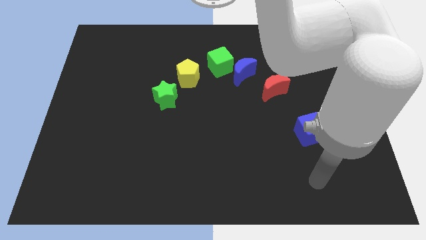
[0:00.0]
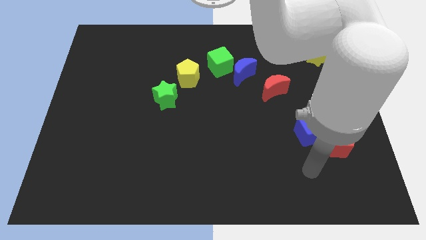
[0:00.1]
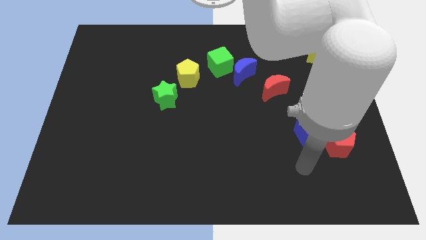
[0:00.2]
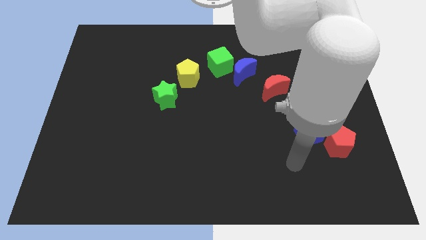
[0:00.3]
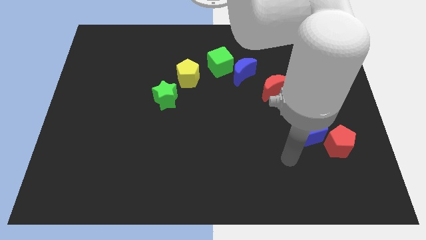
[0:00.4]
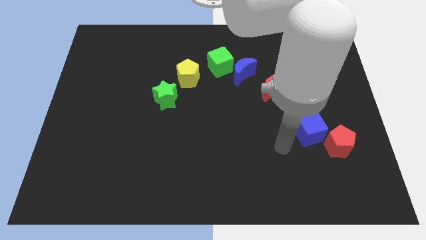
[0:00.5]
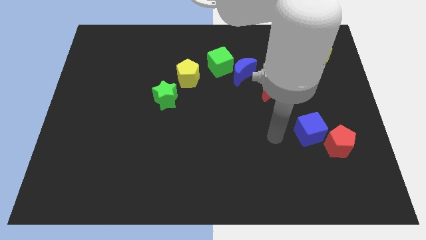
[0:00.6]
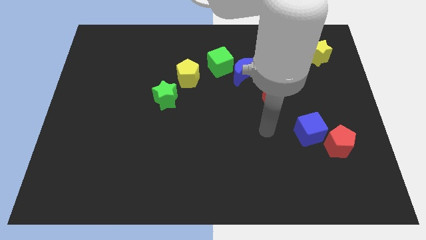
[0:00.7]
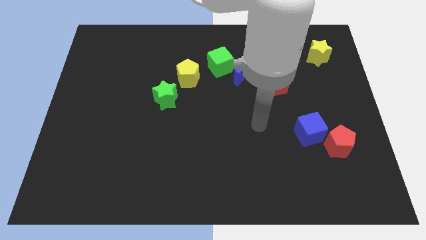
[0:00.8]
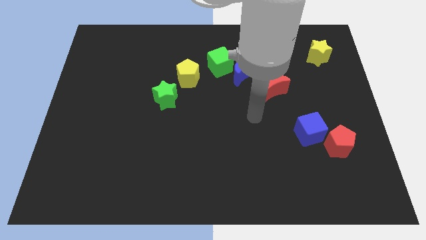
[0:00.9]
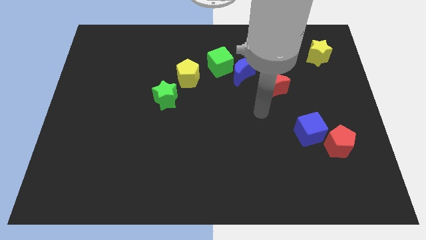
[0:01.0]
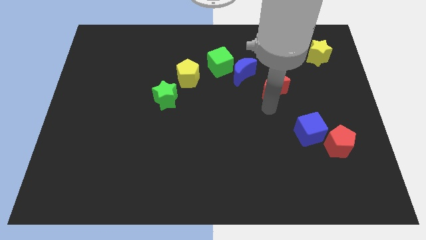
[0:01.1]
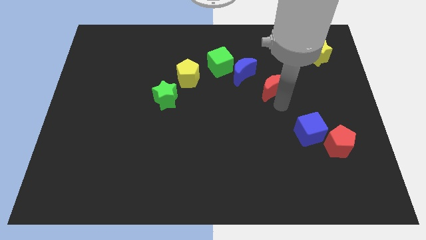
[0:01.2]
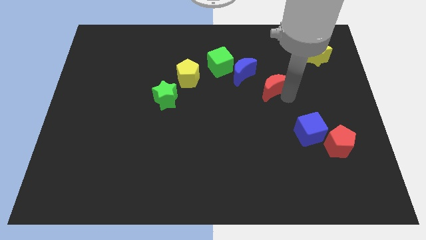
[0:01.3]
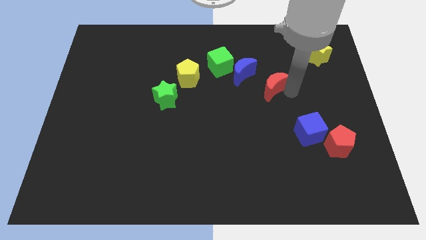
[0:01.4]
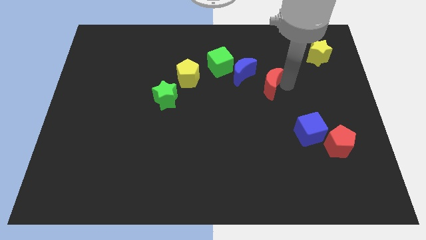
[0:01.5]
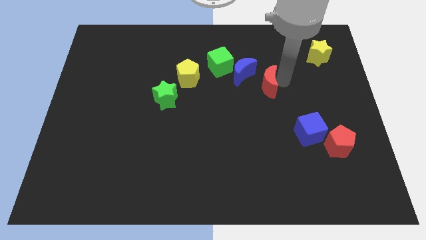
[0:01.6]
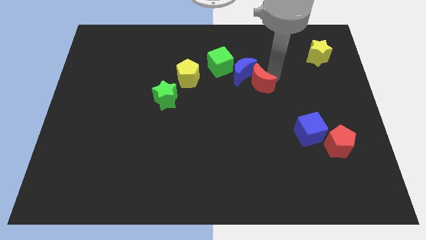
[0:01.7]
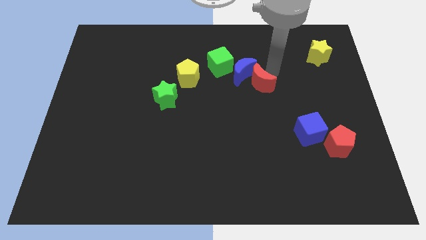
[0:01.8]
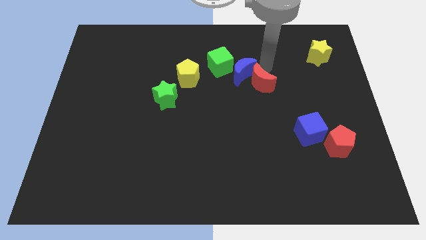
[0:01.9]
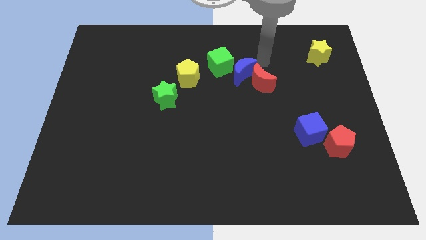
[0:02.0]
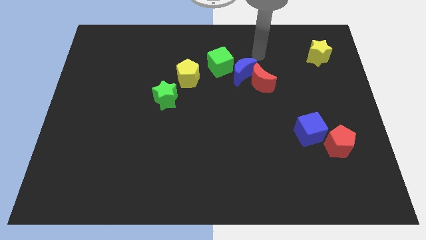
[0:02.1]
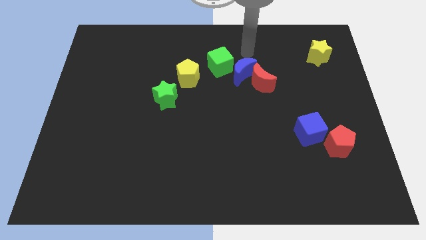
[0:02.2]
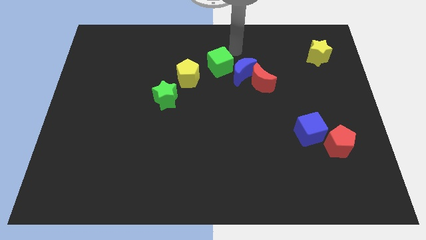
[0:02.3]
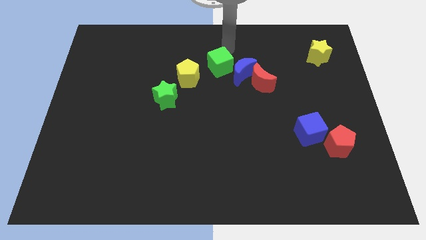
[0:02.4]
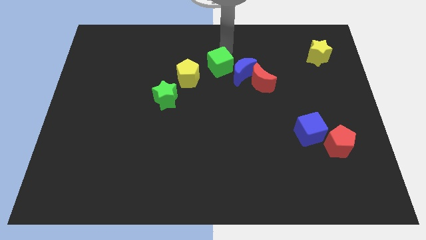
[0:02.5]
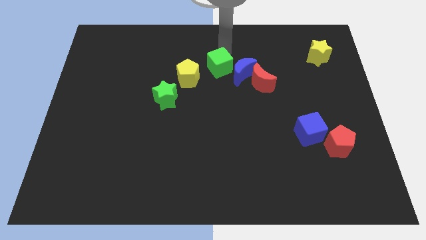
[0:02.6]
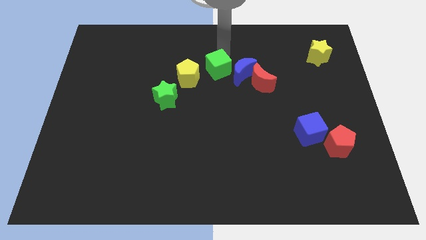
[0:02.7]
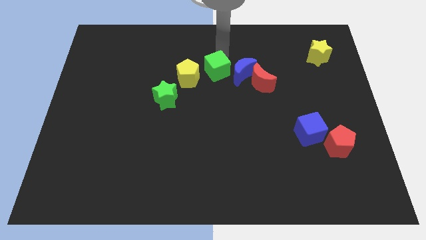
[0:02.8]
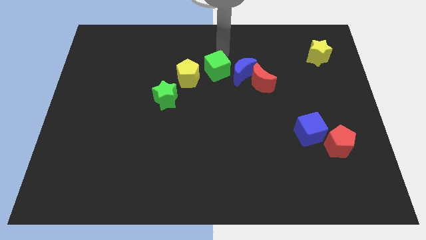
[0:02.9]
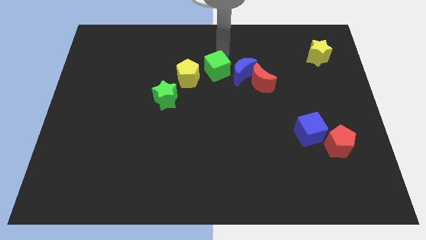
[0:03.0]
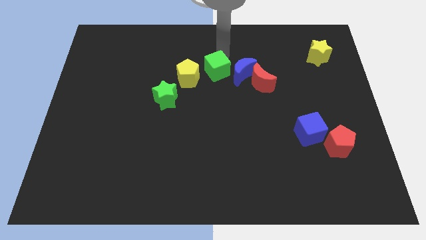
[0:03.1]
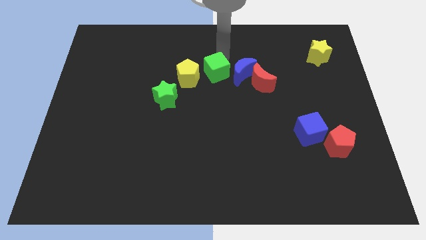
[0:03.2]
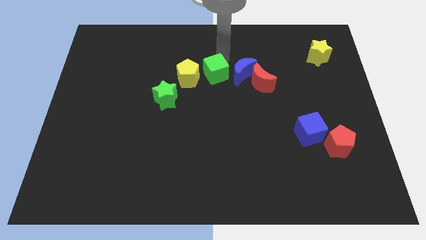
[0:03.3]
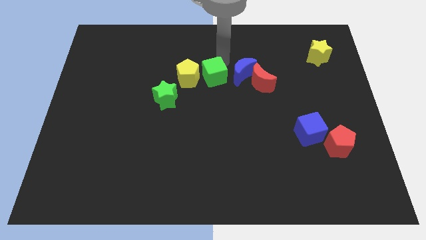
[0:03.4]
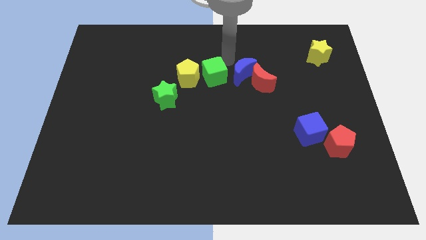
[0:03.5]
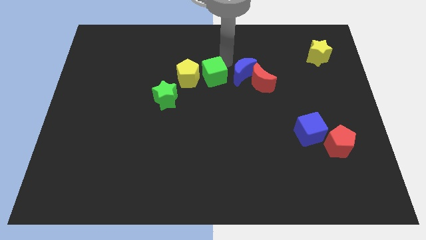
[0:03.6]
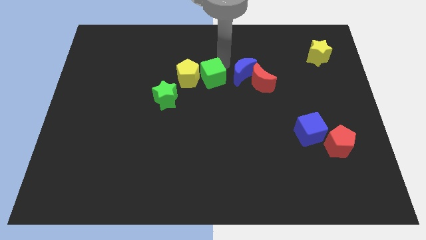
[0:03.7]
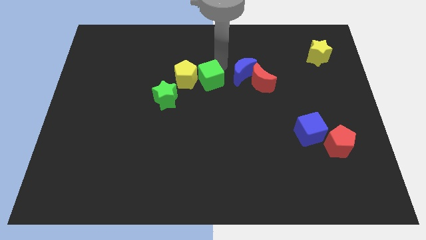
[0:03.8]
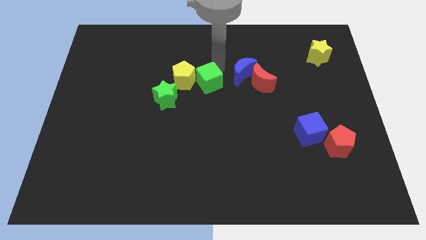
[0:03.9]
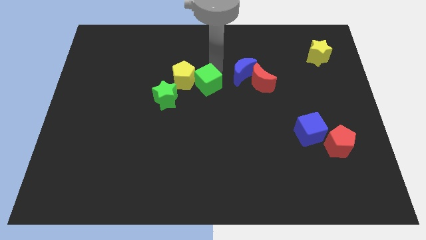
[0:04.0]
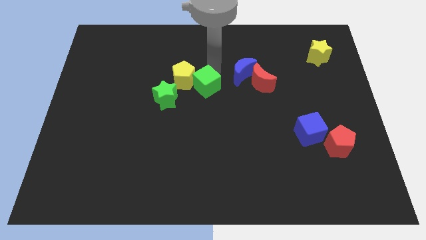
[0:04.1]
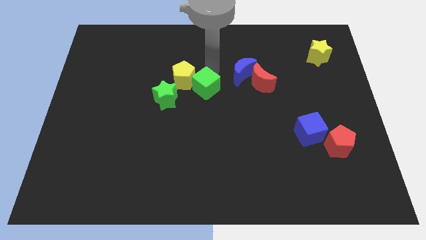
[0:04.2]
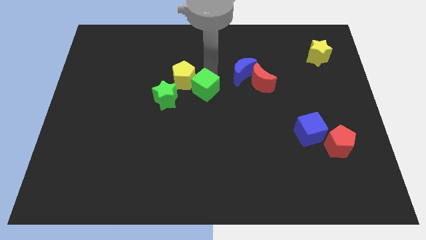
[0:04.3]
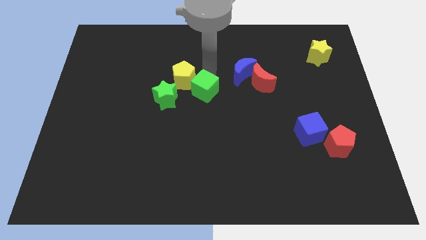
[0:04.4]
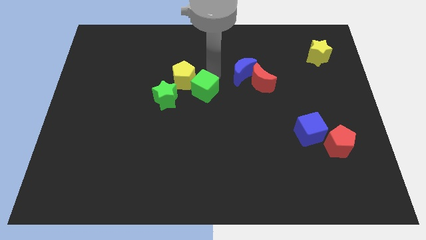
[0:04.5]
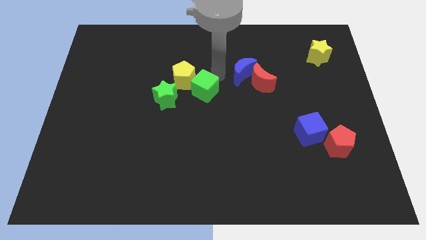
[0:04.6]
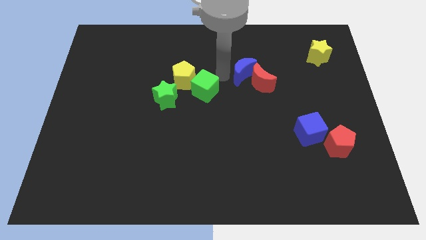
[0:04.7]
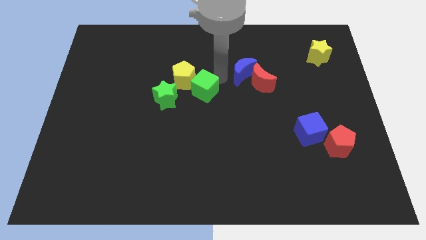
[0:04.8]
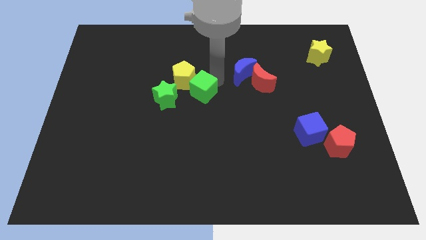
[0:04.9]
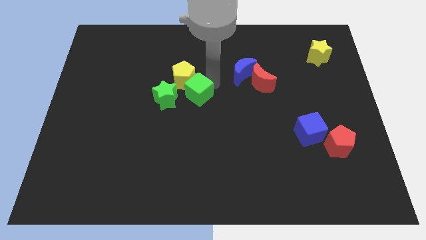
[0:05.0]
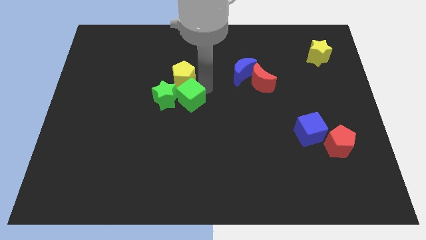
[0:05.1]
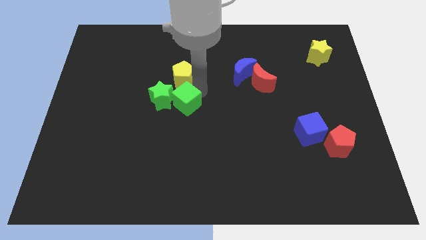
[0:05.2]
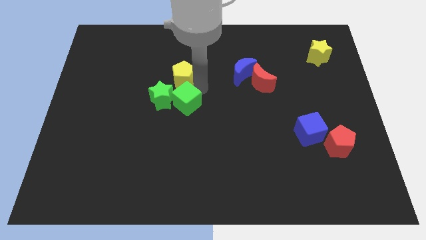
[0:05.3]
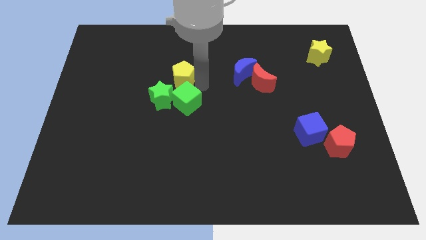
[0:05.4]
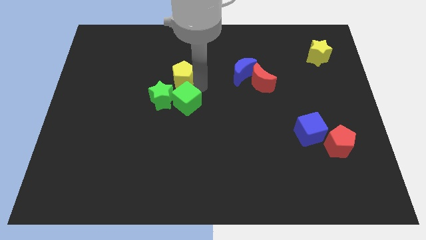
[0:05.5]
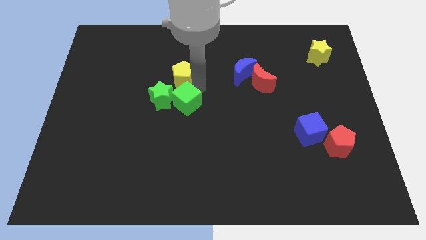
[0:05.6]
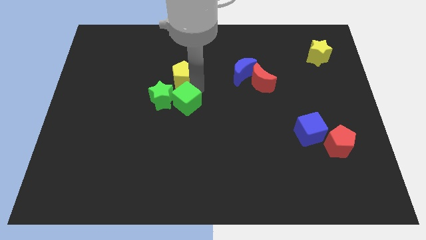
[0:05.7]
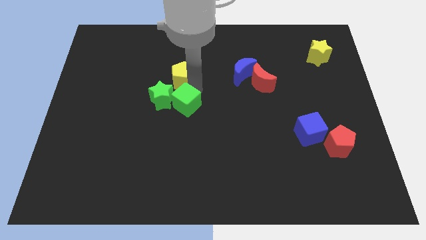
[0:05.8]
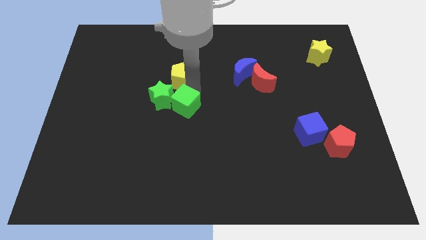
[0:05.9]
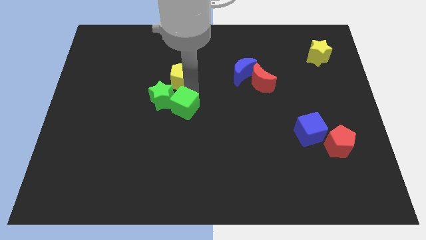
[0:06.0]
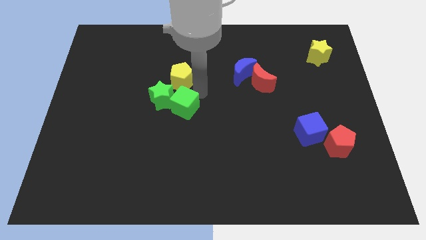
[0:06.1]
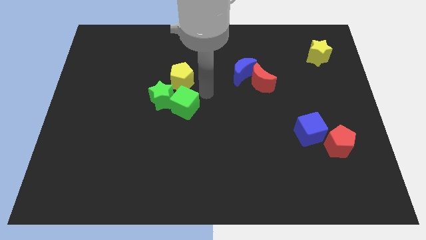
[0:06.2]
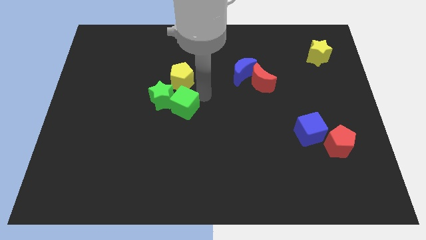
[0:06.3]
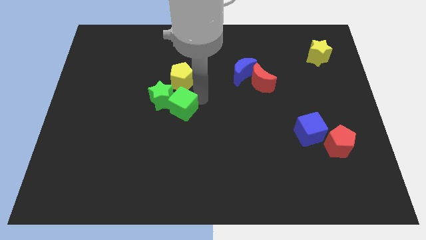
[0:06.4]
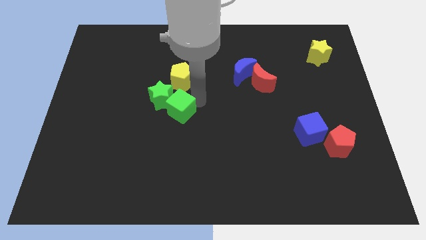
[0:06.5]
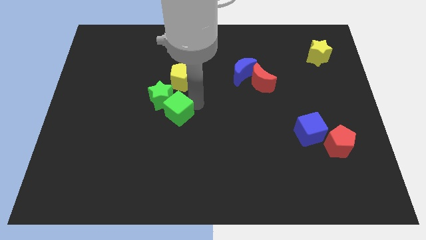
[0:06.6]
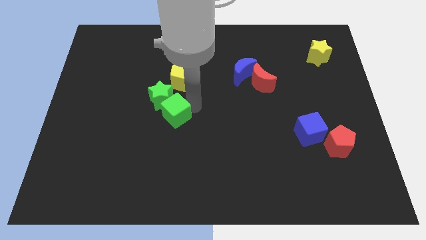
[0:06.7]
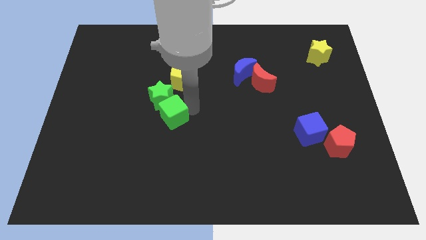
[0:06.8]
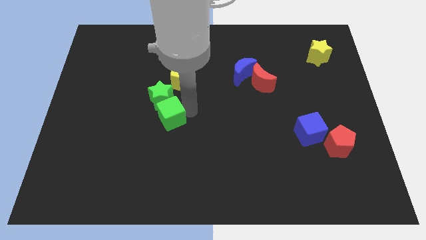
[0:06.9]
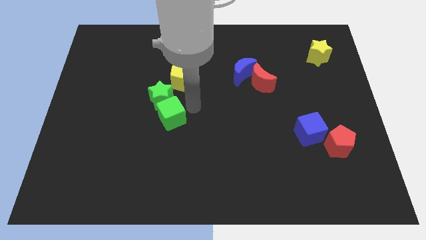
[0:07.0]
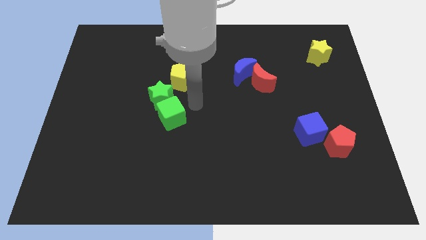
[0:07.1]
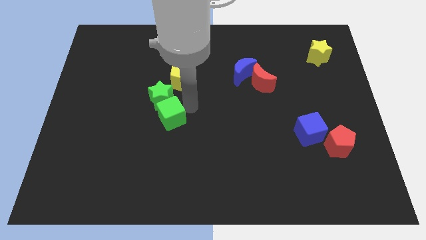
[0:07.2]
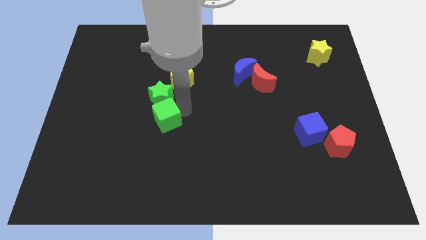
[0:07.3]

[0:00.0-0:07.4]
push the green cube down and left

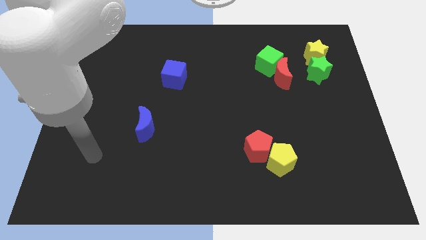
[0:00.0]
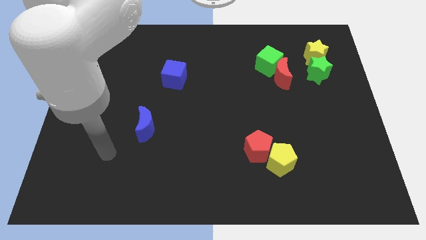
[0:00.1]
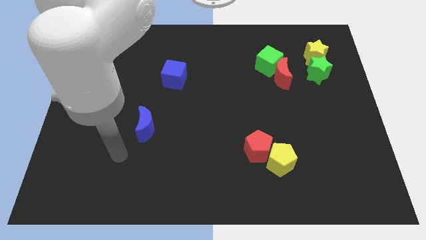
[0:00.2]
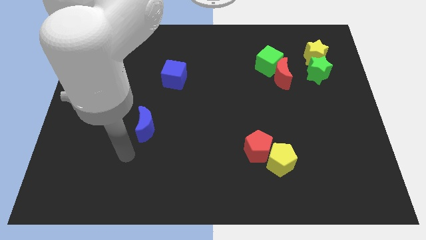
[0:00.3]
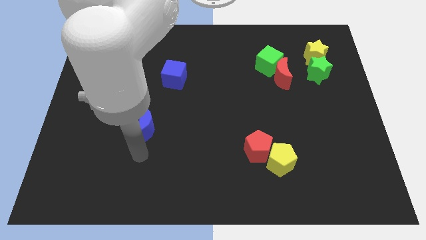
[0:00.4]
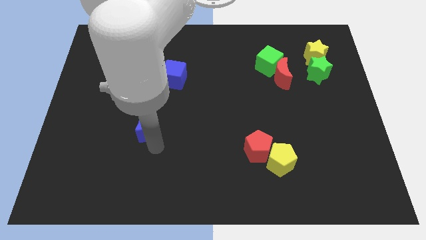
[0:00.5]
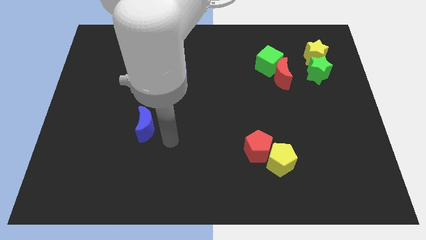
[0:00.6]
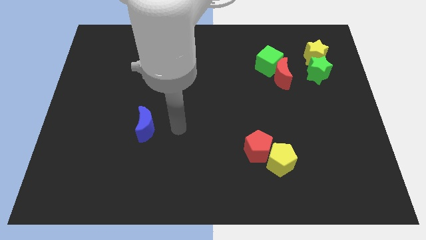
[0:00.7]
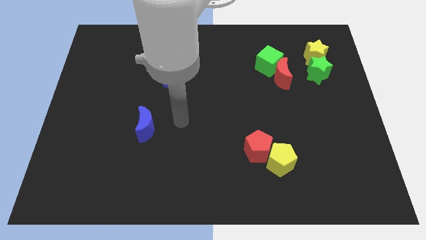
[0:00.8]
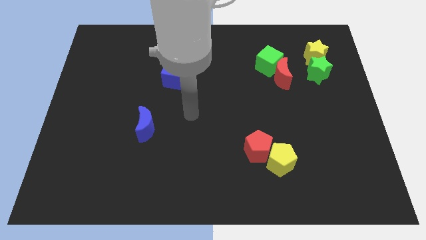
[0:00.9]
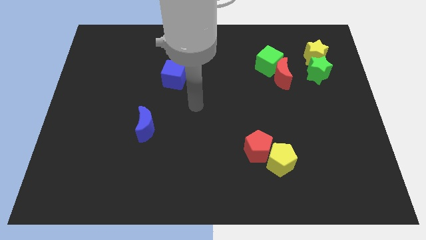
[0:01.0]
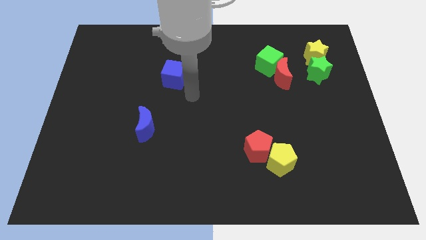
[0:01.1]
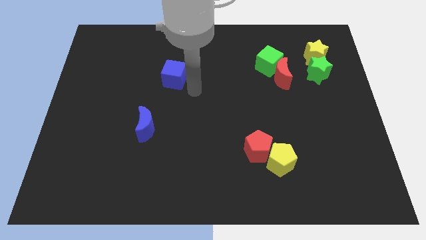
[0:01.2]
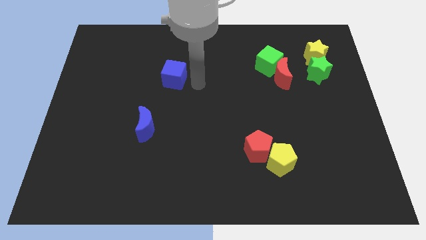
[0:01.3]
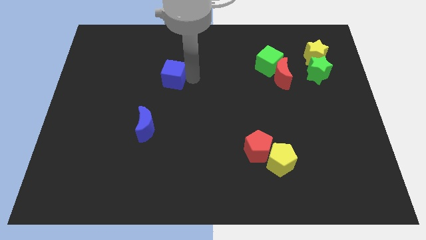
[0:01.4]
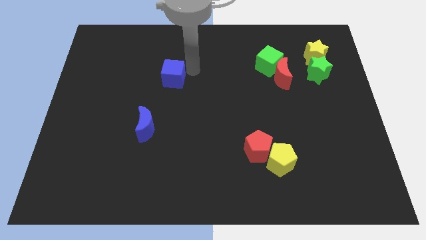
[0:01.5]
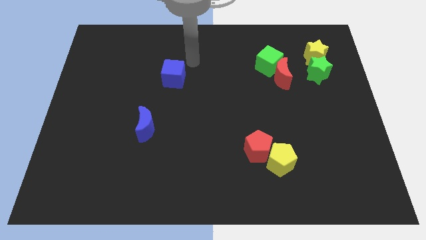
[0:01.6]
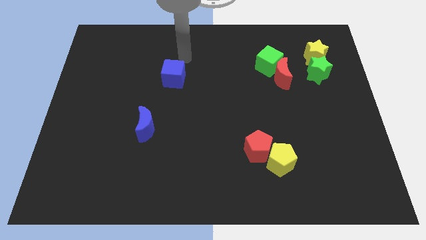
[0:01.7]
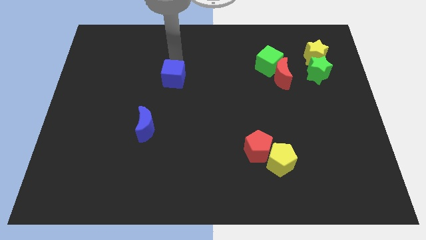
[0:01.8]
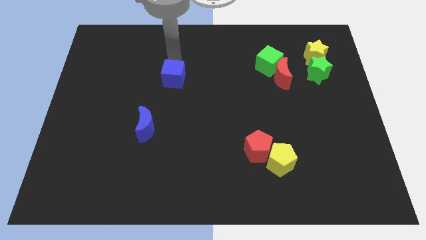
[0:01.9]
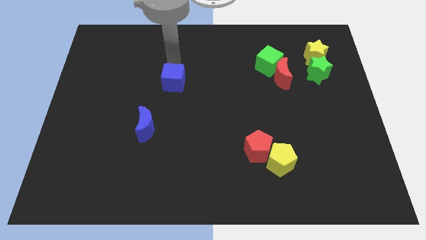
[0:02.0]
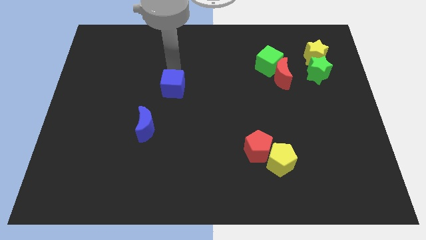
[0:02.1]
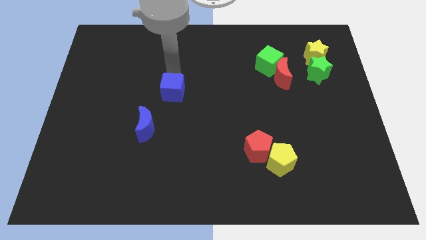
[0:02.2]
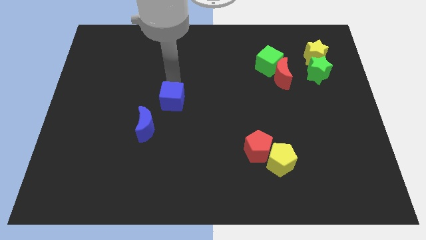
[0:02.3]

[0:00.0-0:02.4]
move the blue cube a bit downwards
